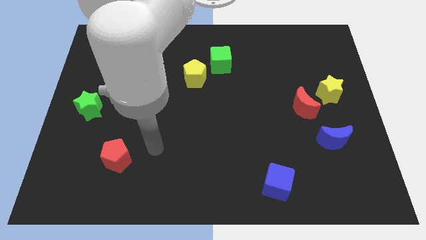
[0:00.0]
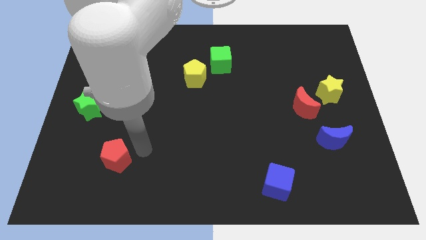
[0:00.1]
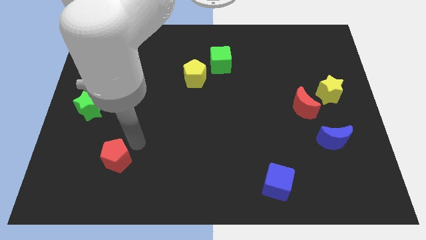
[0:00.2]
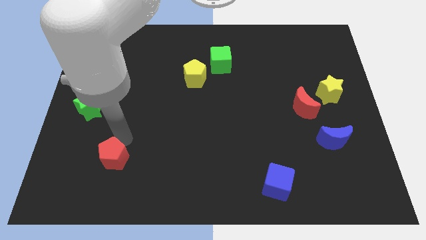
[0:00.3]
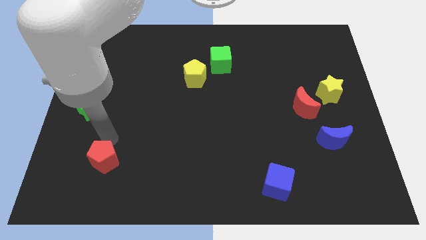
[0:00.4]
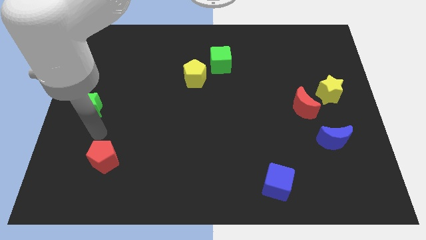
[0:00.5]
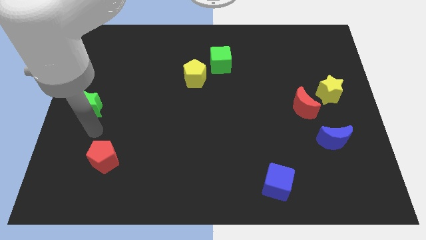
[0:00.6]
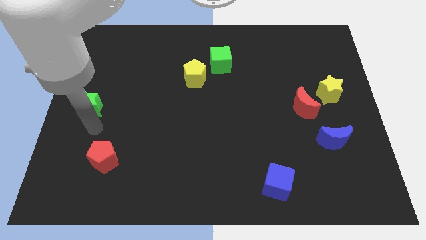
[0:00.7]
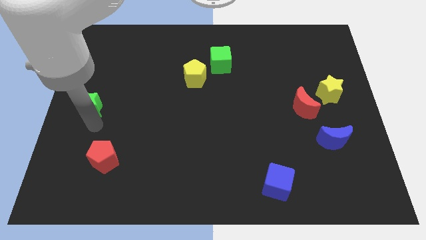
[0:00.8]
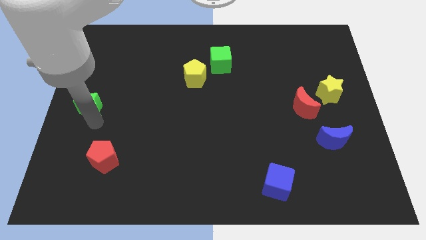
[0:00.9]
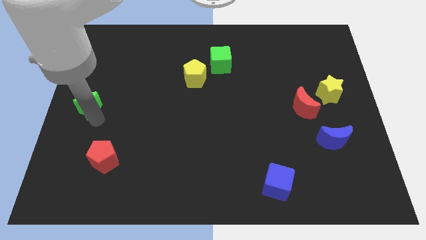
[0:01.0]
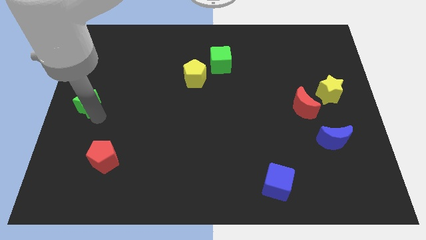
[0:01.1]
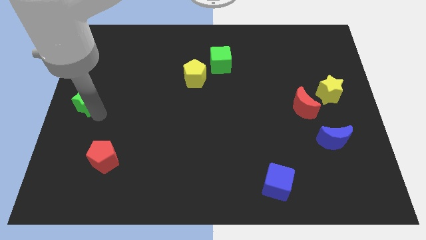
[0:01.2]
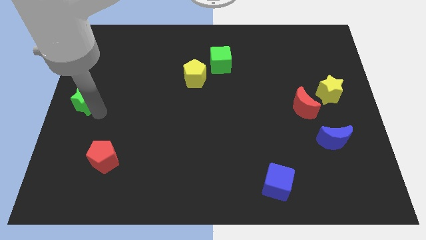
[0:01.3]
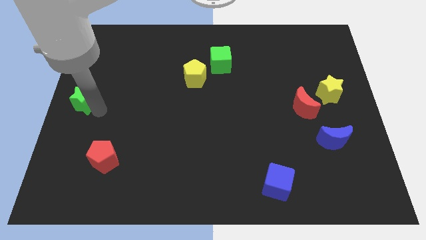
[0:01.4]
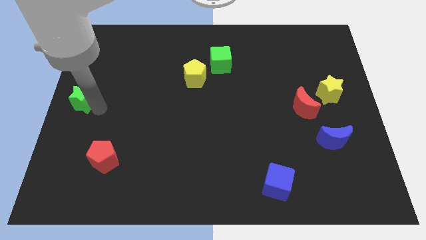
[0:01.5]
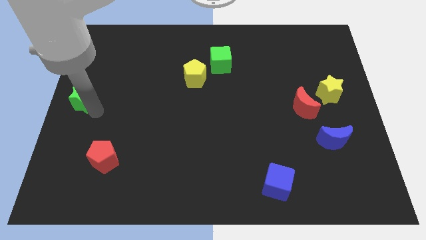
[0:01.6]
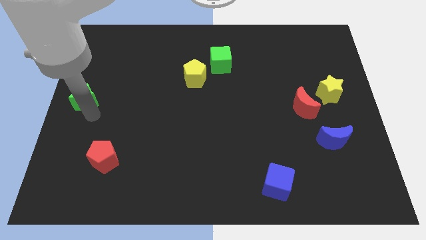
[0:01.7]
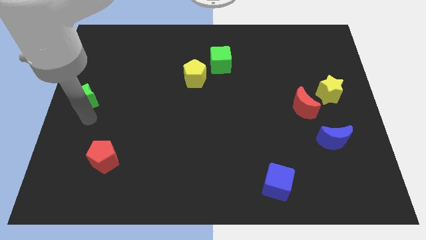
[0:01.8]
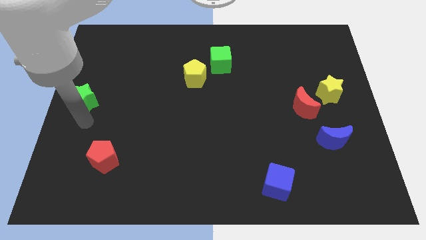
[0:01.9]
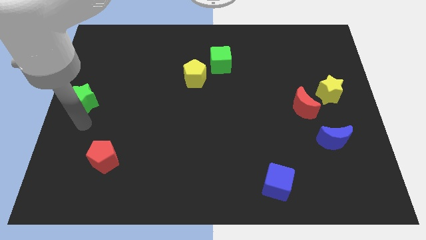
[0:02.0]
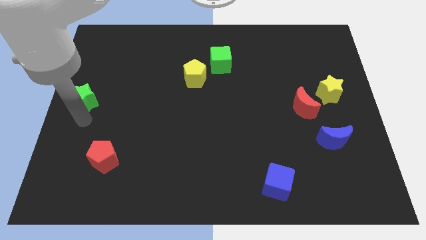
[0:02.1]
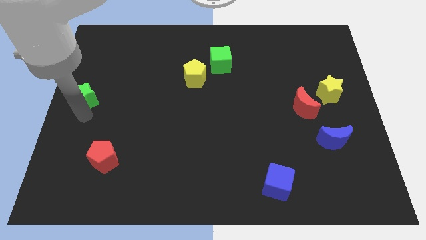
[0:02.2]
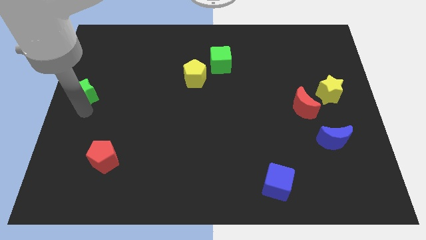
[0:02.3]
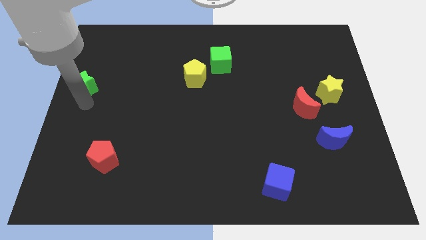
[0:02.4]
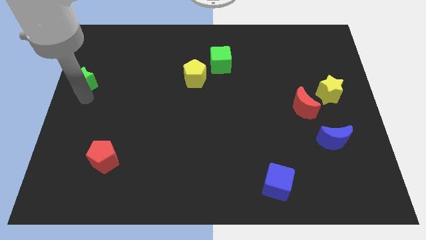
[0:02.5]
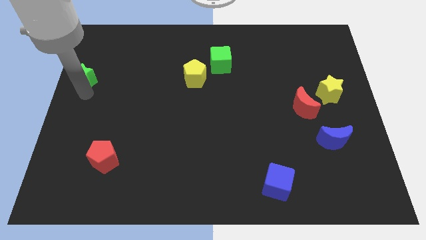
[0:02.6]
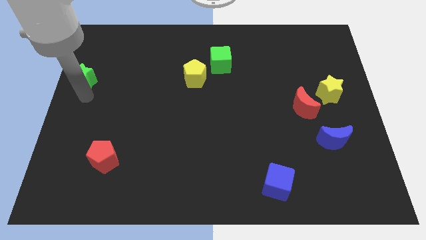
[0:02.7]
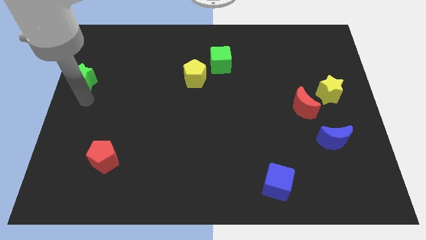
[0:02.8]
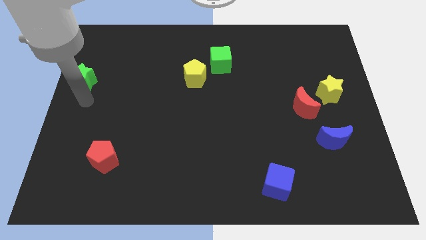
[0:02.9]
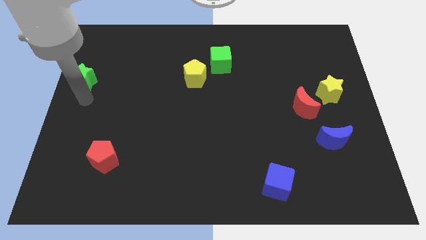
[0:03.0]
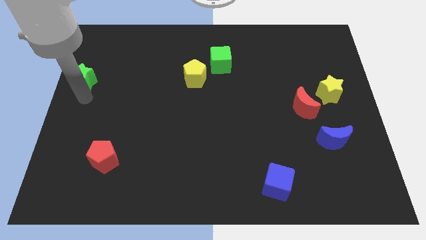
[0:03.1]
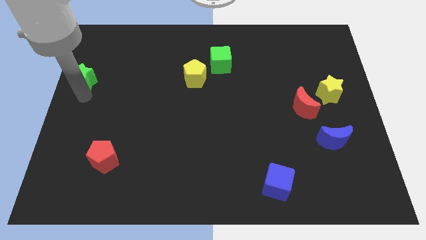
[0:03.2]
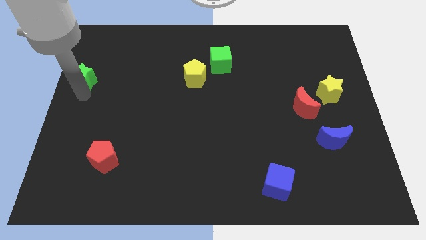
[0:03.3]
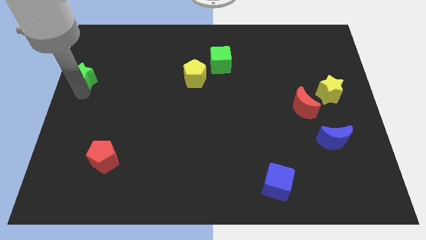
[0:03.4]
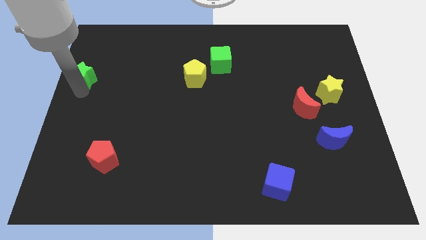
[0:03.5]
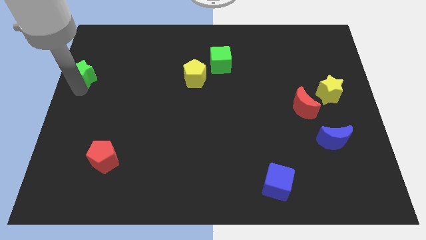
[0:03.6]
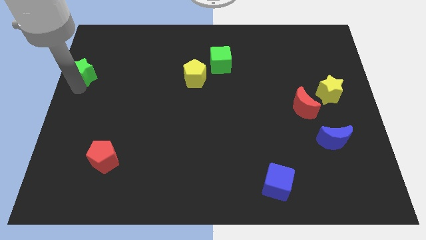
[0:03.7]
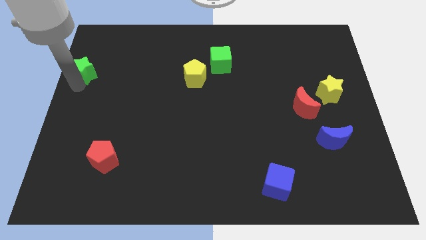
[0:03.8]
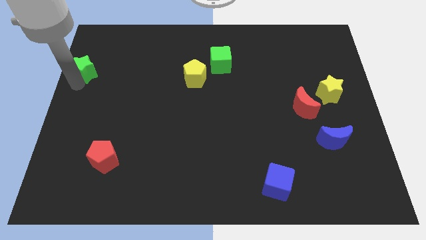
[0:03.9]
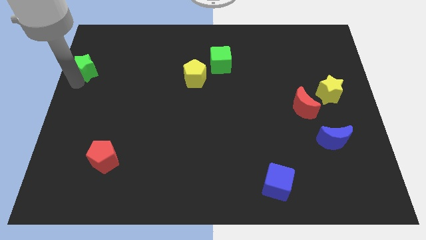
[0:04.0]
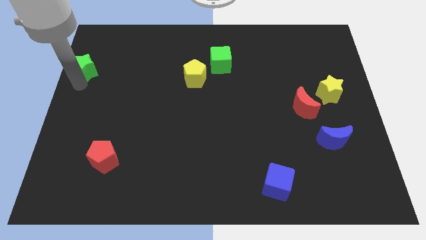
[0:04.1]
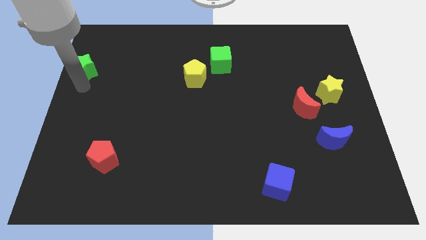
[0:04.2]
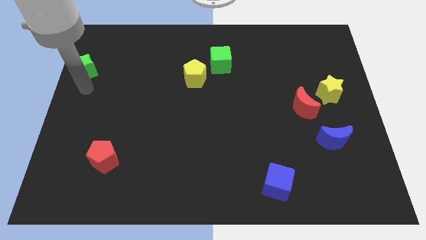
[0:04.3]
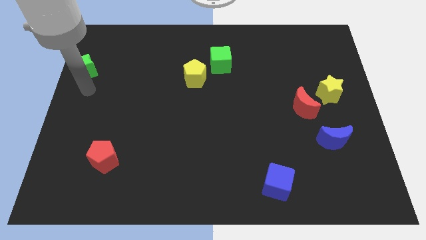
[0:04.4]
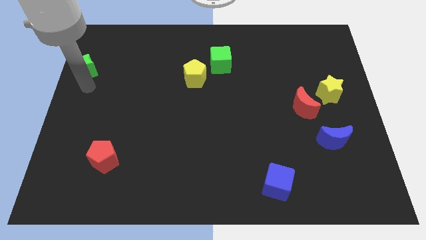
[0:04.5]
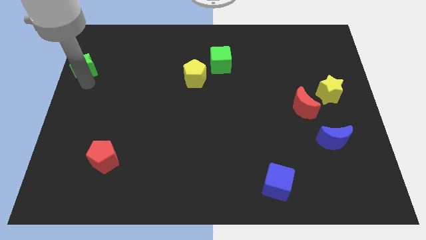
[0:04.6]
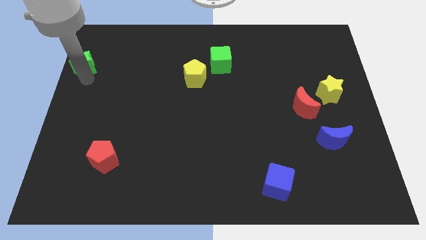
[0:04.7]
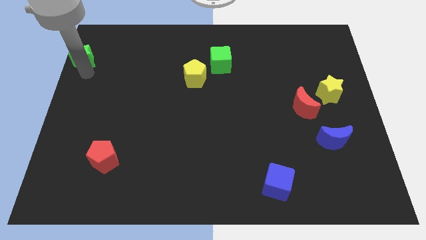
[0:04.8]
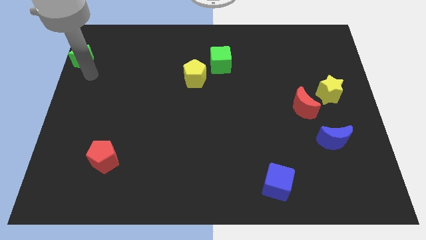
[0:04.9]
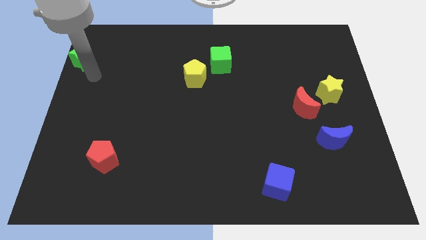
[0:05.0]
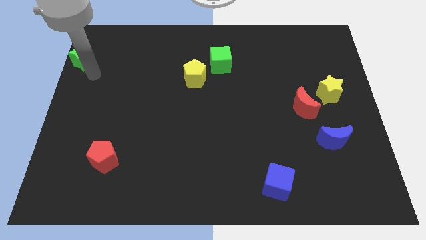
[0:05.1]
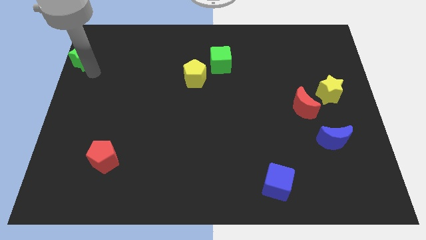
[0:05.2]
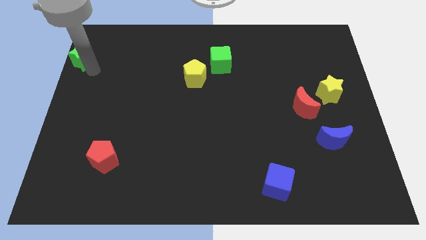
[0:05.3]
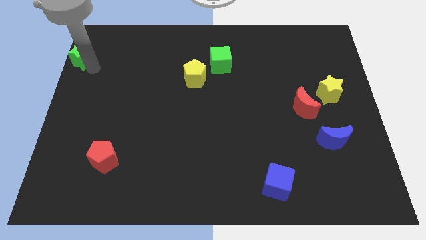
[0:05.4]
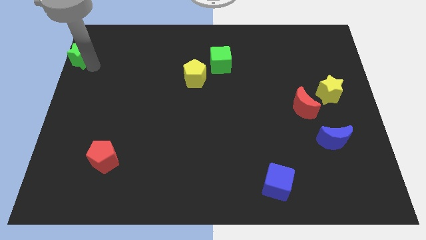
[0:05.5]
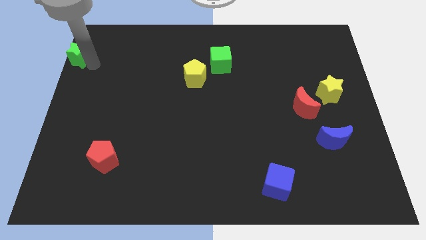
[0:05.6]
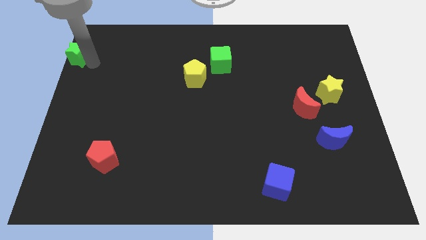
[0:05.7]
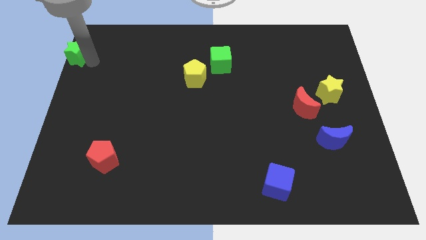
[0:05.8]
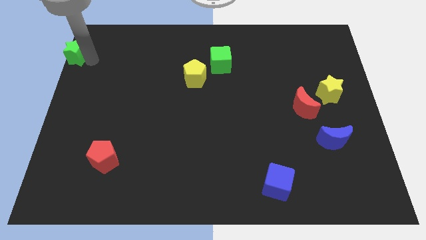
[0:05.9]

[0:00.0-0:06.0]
slide the green star to the top left of the board

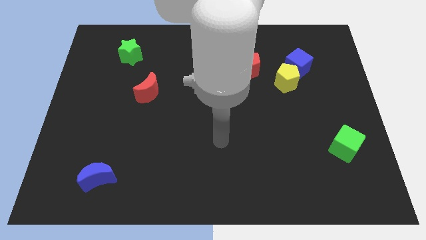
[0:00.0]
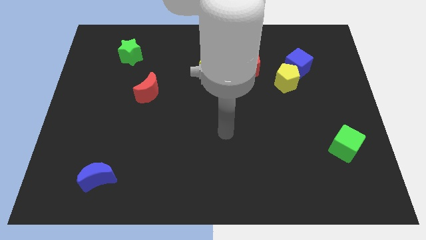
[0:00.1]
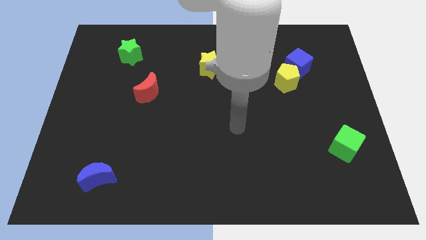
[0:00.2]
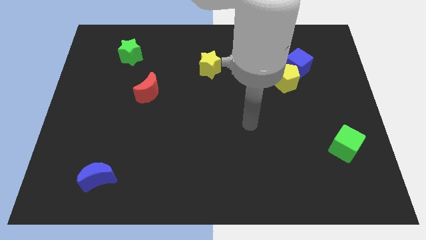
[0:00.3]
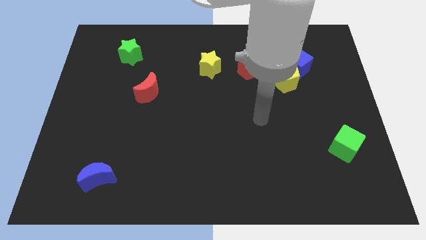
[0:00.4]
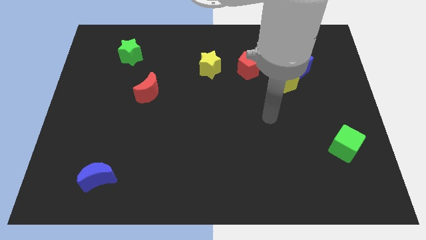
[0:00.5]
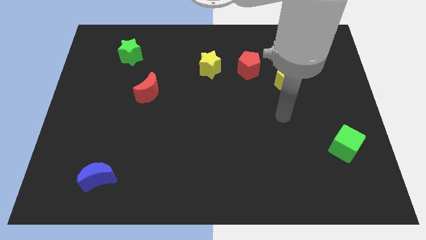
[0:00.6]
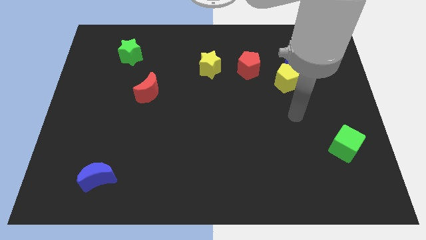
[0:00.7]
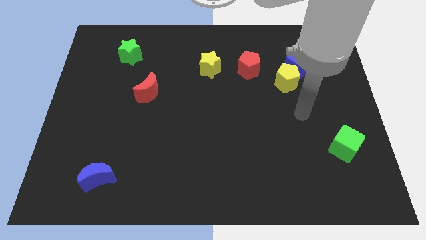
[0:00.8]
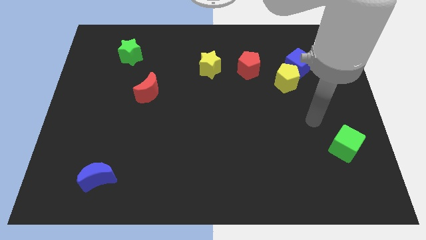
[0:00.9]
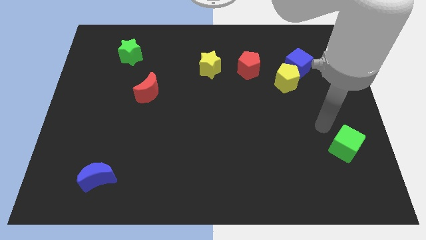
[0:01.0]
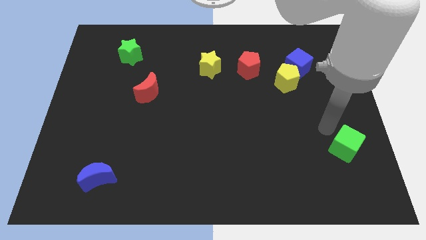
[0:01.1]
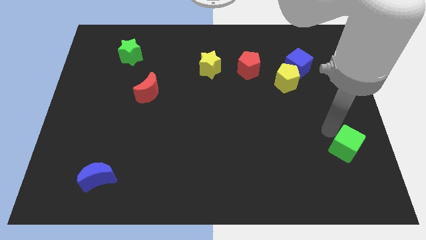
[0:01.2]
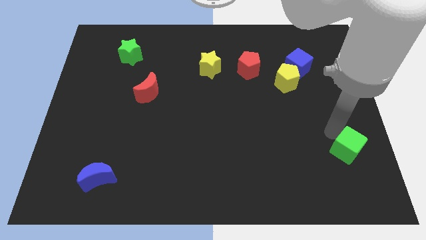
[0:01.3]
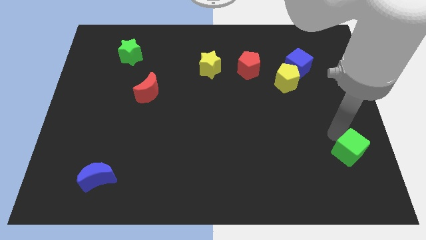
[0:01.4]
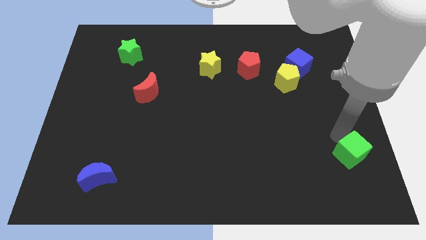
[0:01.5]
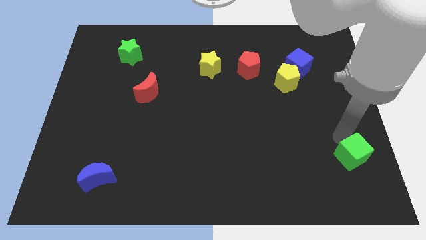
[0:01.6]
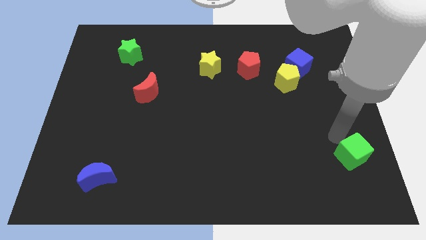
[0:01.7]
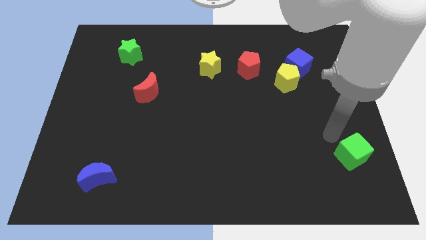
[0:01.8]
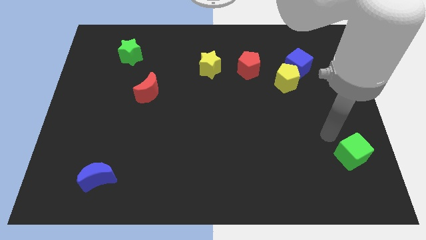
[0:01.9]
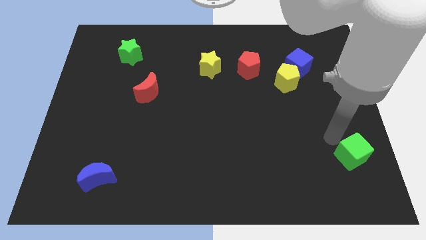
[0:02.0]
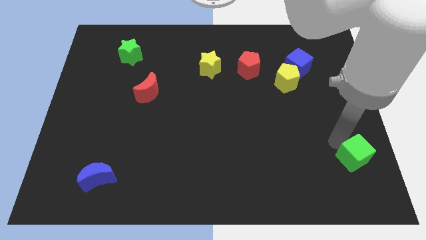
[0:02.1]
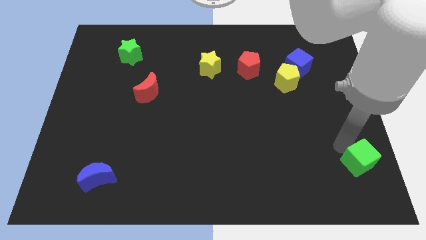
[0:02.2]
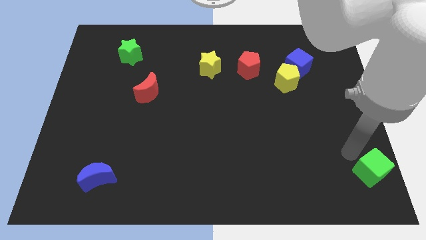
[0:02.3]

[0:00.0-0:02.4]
slide the green cube to the bottom right
